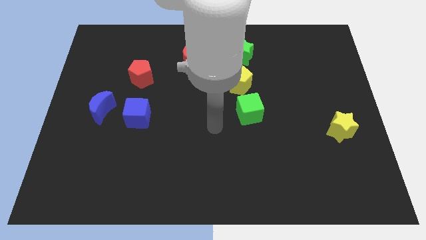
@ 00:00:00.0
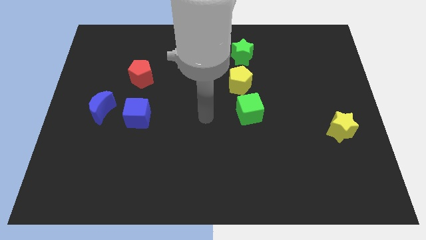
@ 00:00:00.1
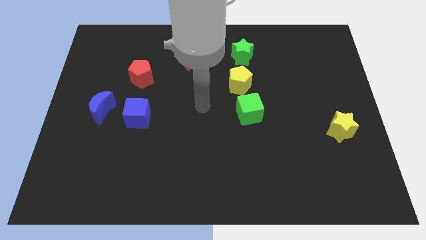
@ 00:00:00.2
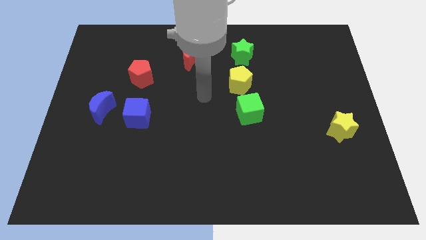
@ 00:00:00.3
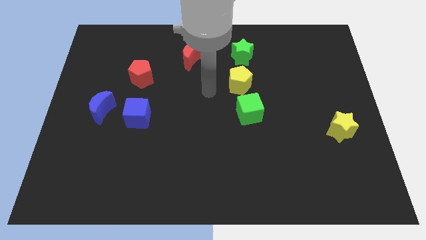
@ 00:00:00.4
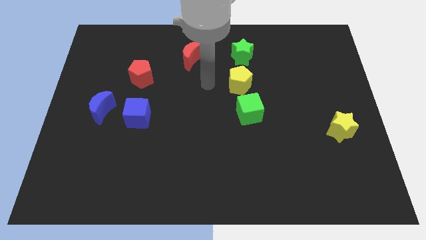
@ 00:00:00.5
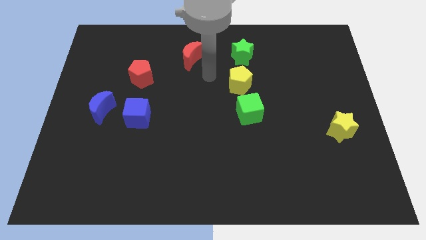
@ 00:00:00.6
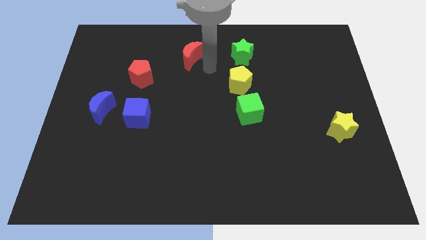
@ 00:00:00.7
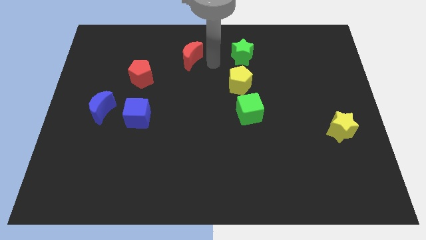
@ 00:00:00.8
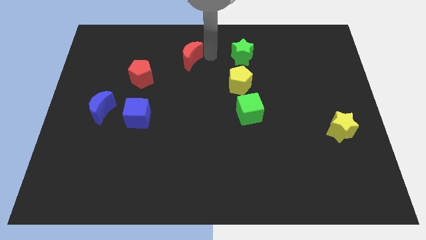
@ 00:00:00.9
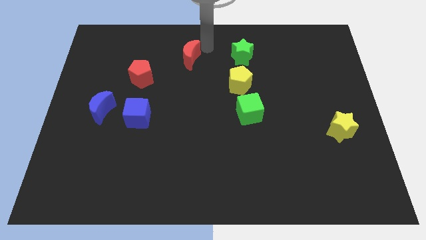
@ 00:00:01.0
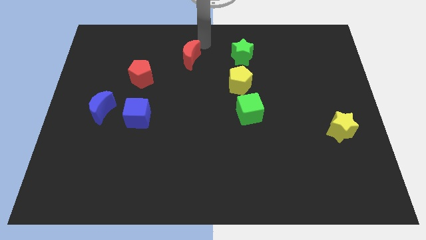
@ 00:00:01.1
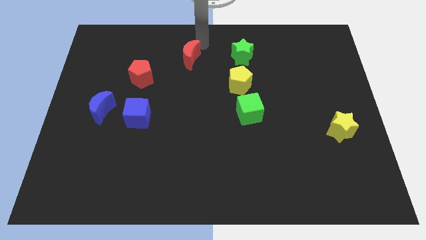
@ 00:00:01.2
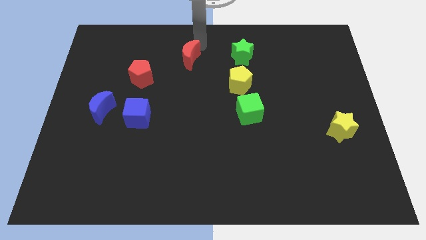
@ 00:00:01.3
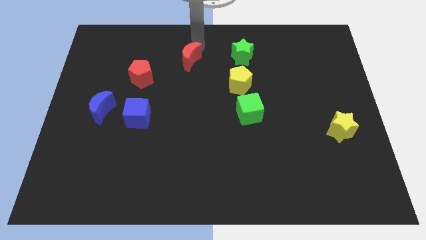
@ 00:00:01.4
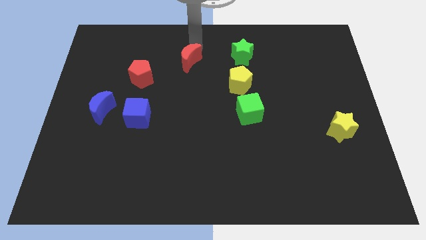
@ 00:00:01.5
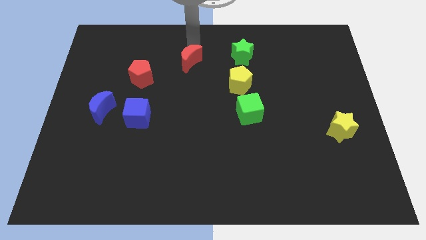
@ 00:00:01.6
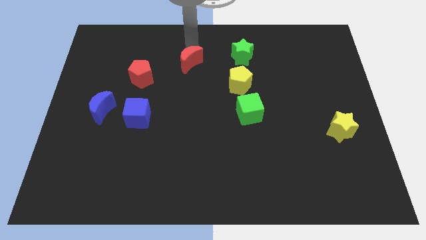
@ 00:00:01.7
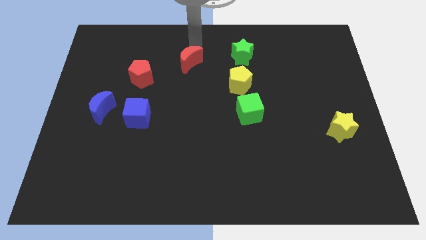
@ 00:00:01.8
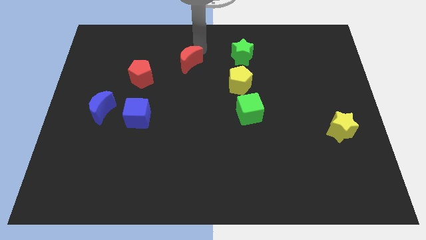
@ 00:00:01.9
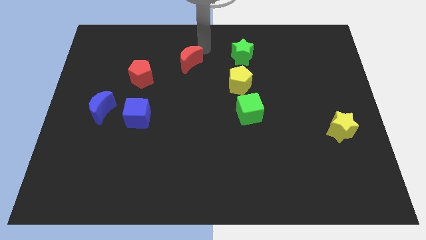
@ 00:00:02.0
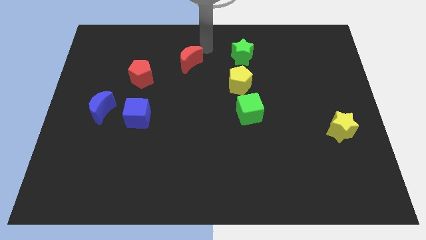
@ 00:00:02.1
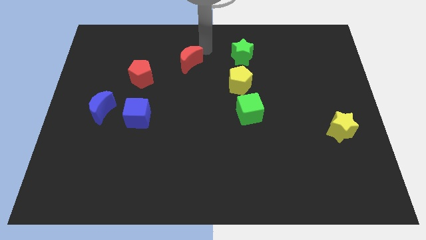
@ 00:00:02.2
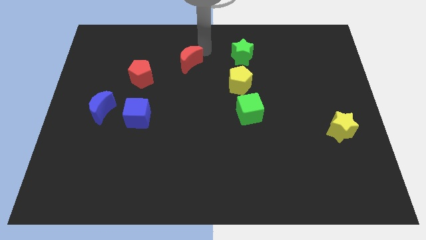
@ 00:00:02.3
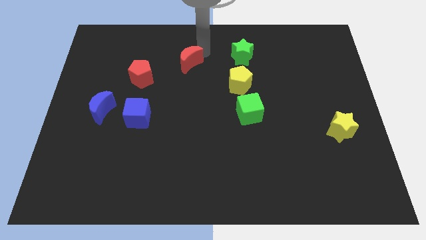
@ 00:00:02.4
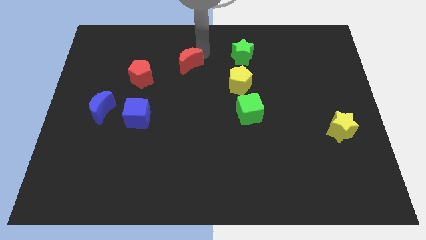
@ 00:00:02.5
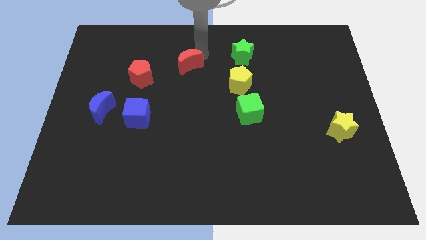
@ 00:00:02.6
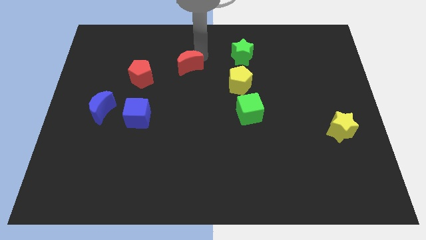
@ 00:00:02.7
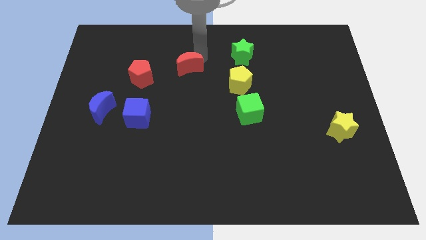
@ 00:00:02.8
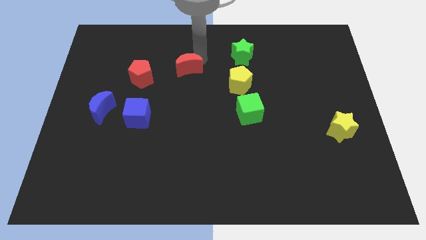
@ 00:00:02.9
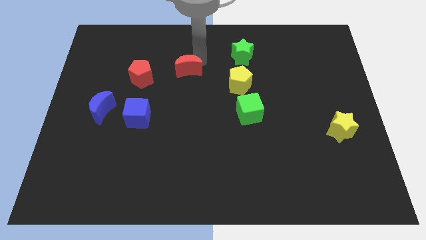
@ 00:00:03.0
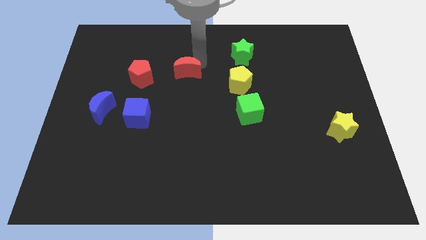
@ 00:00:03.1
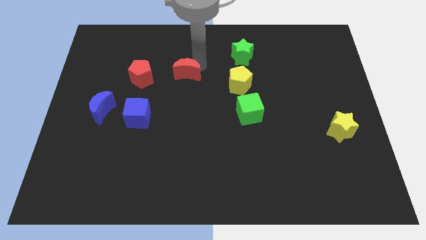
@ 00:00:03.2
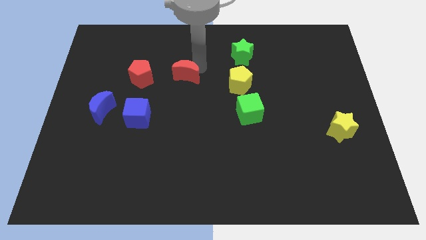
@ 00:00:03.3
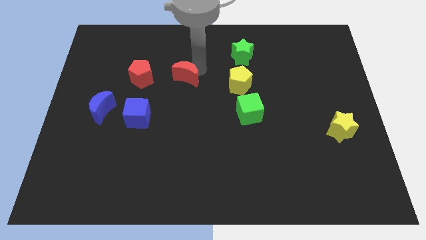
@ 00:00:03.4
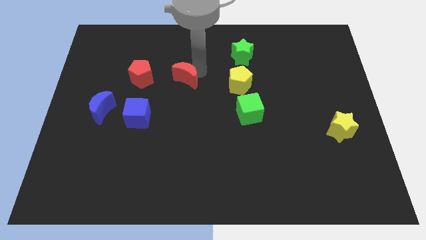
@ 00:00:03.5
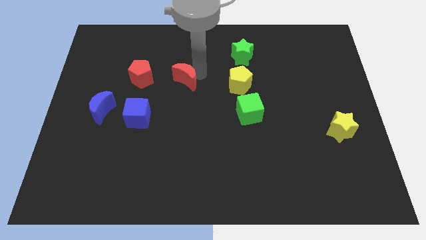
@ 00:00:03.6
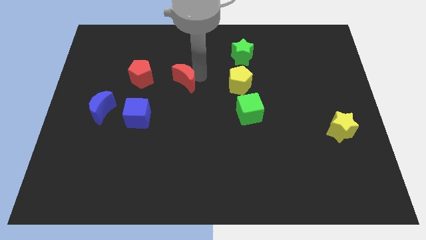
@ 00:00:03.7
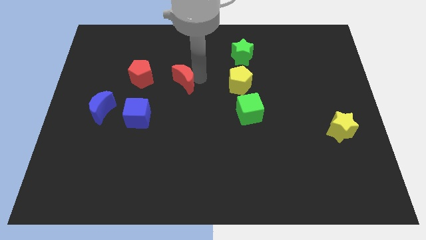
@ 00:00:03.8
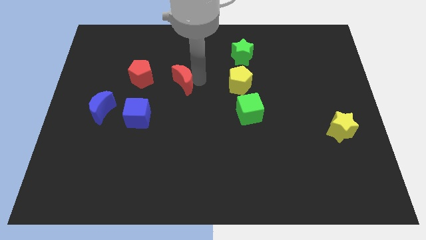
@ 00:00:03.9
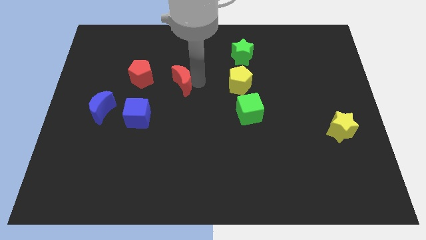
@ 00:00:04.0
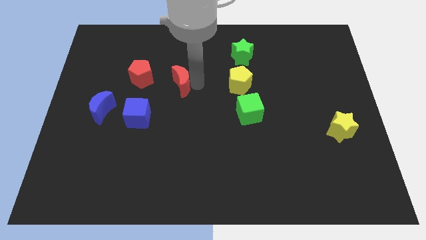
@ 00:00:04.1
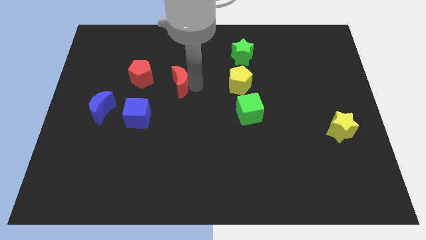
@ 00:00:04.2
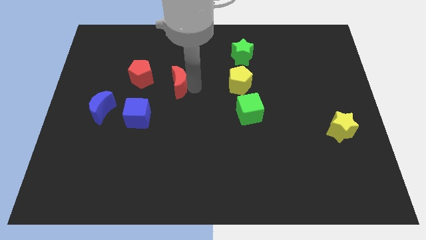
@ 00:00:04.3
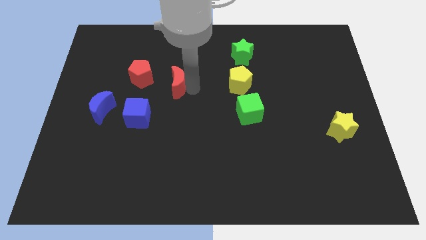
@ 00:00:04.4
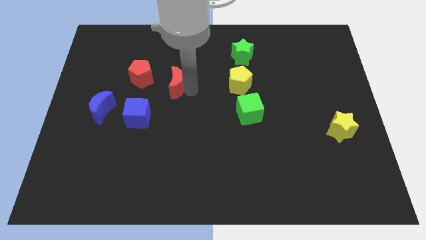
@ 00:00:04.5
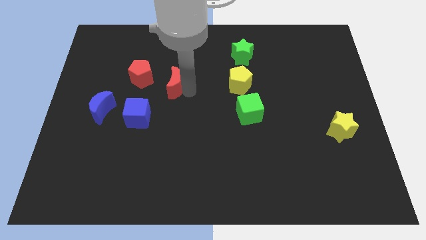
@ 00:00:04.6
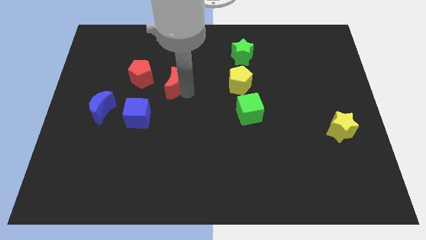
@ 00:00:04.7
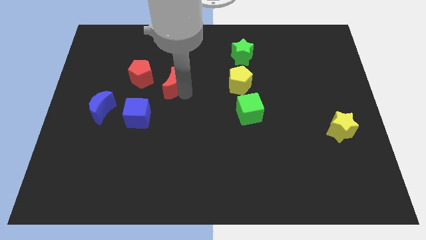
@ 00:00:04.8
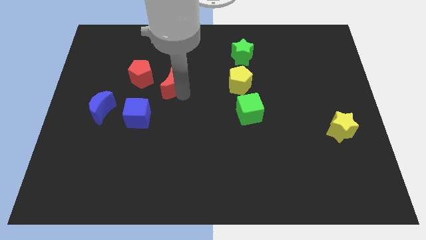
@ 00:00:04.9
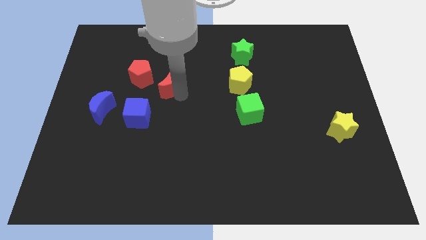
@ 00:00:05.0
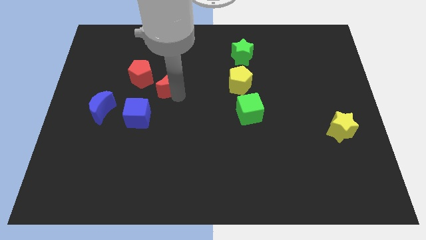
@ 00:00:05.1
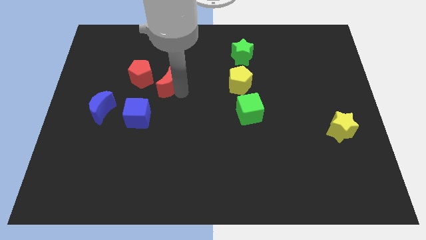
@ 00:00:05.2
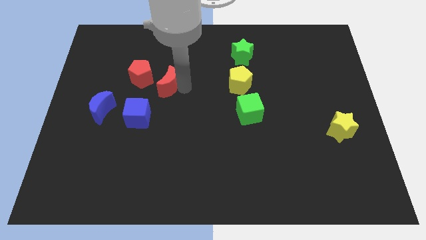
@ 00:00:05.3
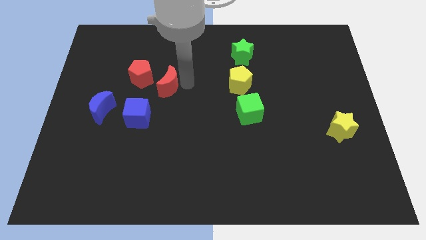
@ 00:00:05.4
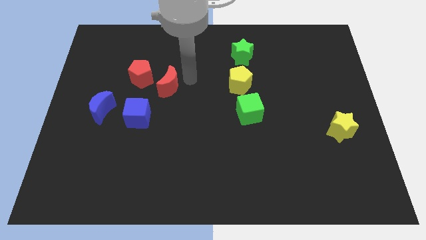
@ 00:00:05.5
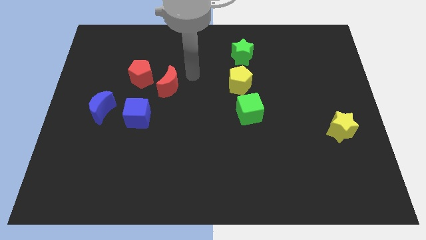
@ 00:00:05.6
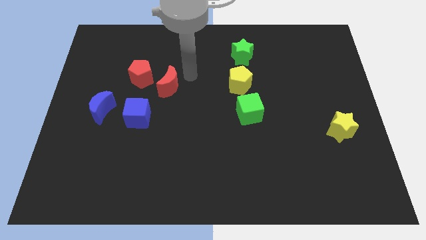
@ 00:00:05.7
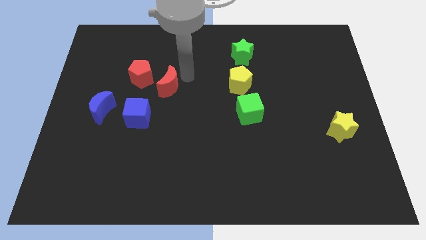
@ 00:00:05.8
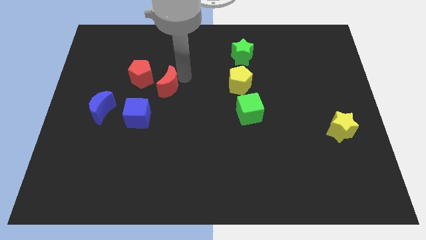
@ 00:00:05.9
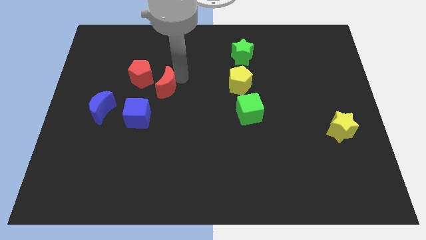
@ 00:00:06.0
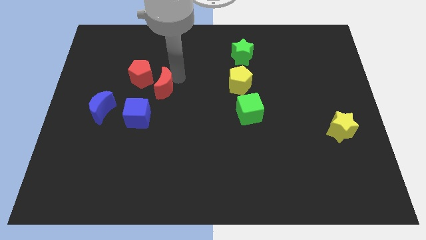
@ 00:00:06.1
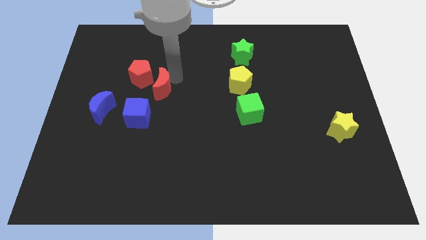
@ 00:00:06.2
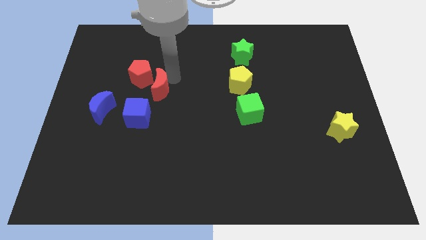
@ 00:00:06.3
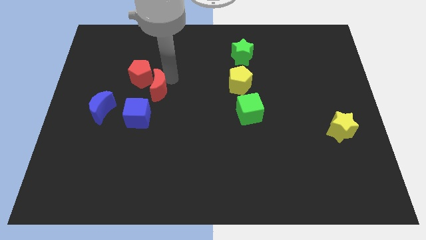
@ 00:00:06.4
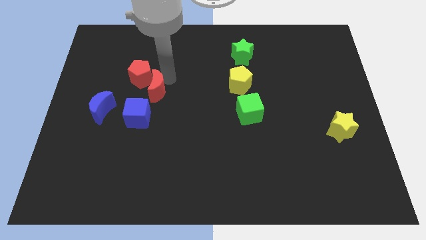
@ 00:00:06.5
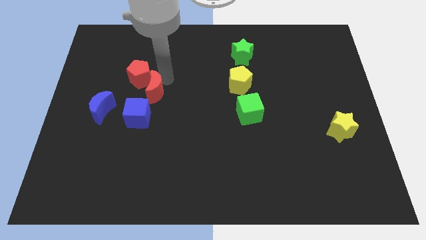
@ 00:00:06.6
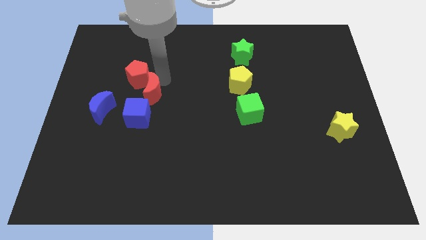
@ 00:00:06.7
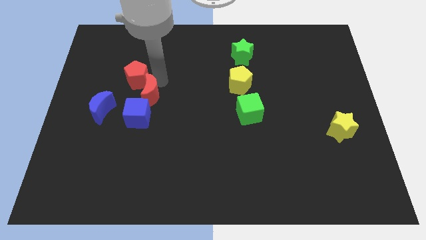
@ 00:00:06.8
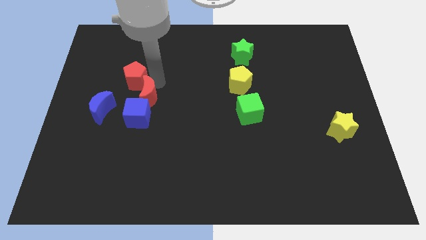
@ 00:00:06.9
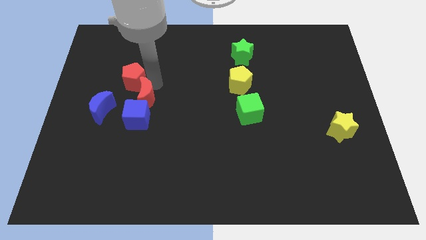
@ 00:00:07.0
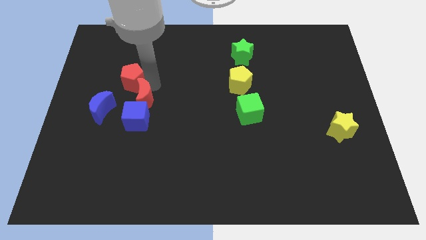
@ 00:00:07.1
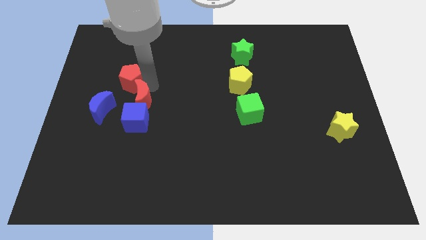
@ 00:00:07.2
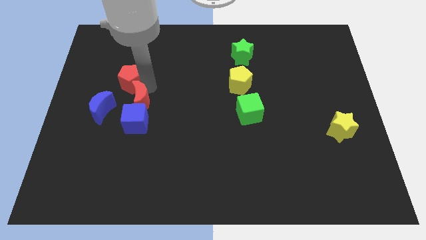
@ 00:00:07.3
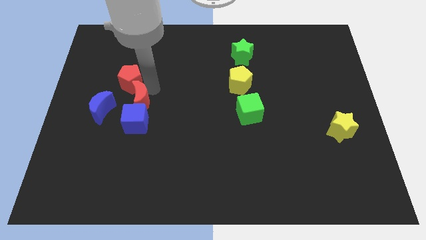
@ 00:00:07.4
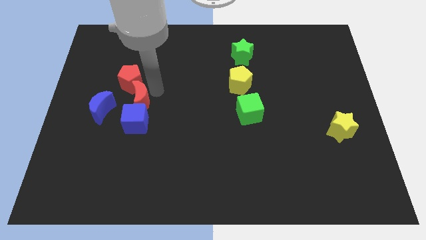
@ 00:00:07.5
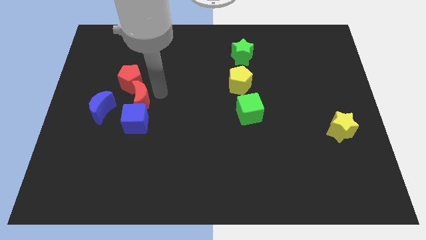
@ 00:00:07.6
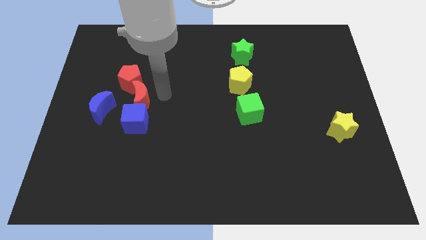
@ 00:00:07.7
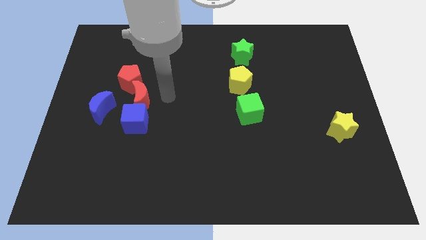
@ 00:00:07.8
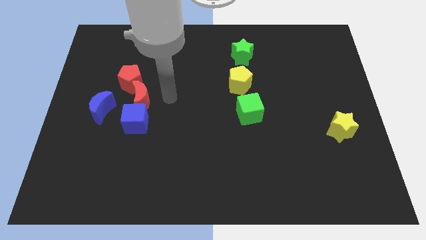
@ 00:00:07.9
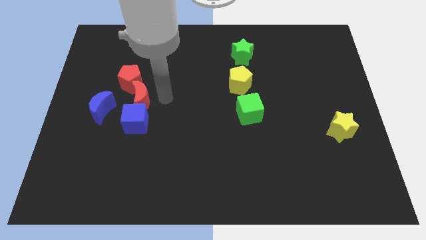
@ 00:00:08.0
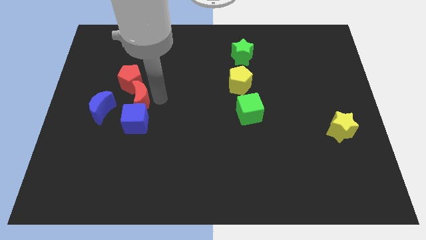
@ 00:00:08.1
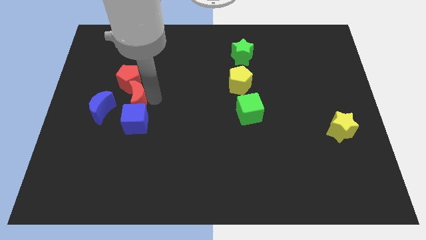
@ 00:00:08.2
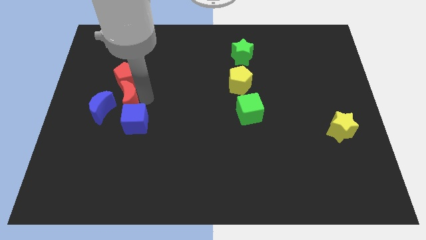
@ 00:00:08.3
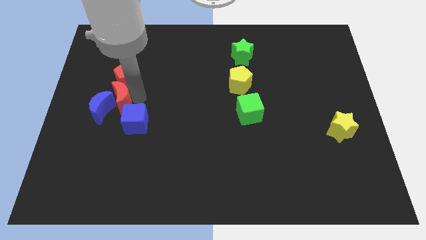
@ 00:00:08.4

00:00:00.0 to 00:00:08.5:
move the red moon close to the blue moon
